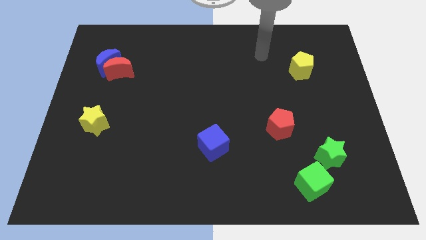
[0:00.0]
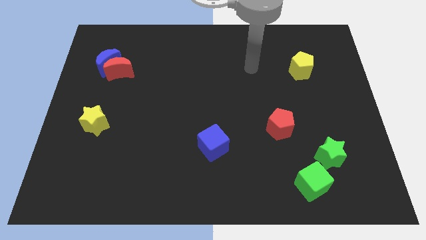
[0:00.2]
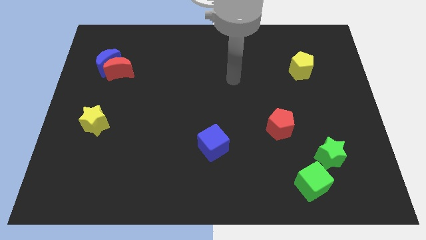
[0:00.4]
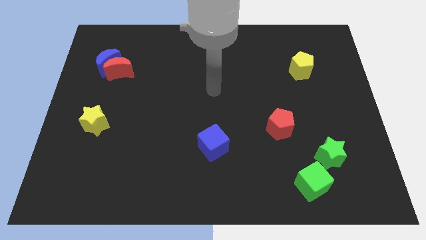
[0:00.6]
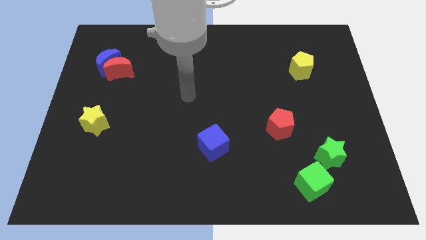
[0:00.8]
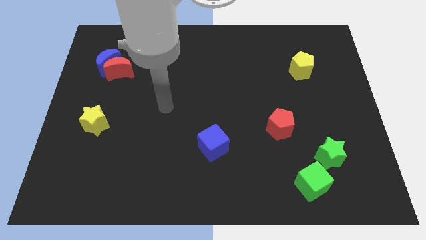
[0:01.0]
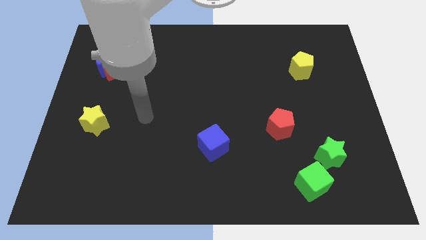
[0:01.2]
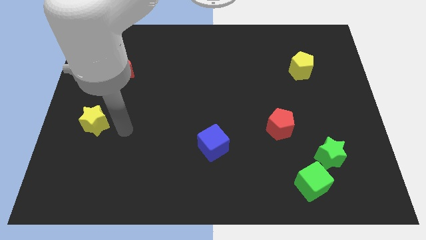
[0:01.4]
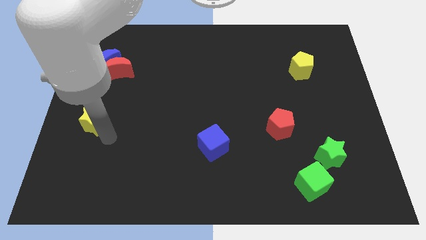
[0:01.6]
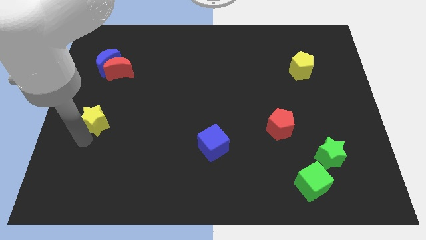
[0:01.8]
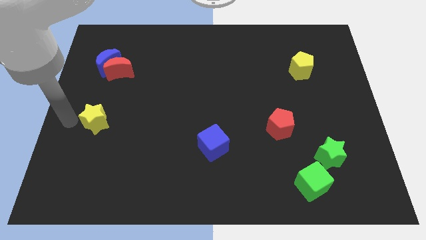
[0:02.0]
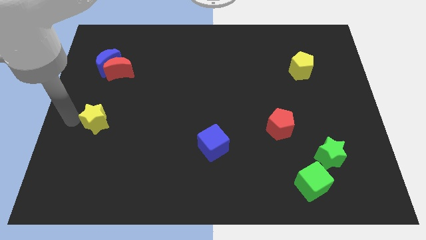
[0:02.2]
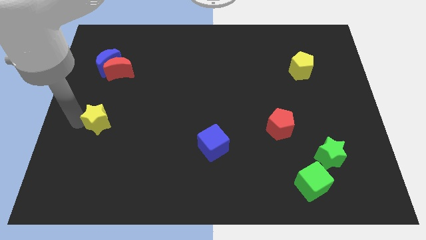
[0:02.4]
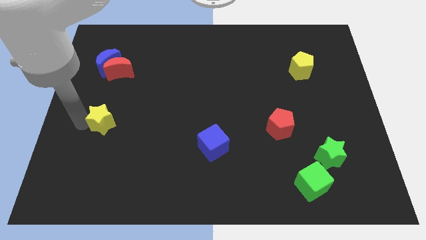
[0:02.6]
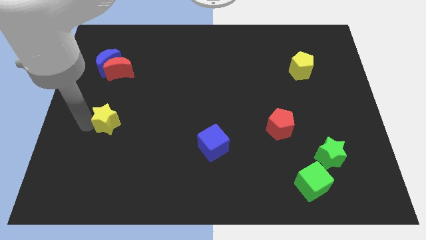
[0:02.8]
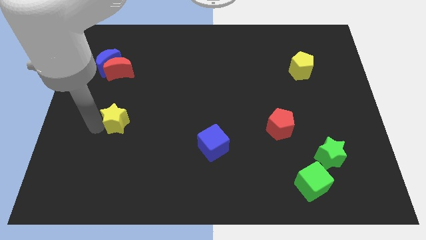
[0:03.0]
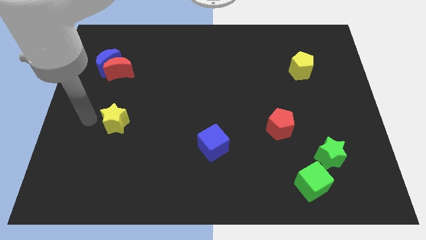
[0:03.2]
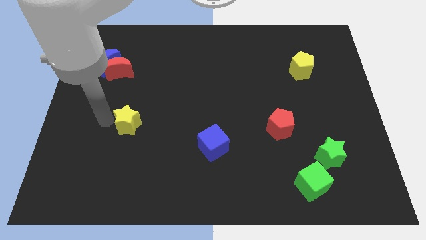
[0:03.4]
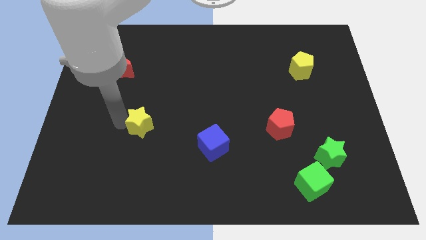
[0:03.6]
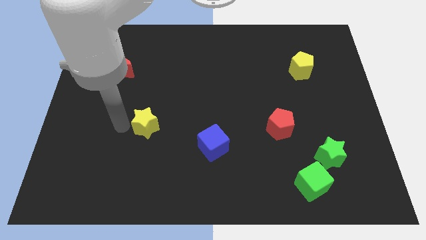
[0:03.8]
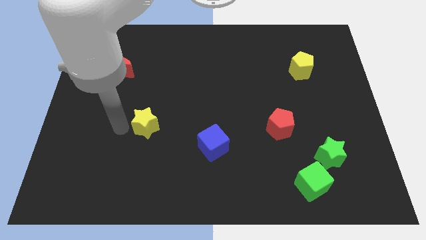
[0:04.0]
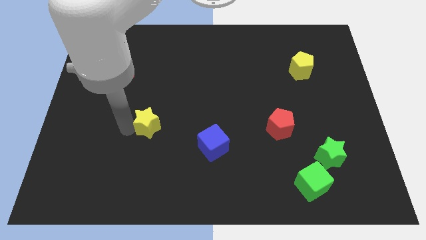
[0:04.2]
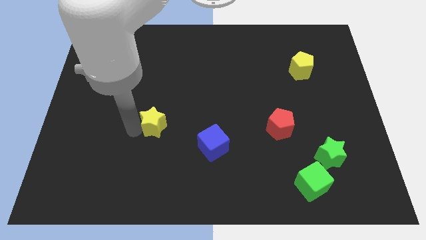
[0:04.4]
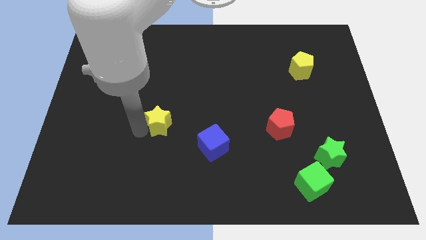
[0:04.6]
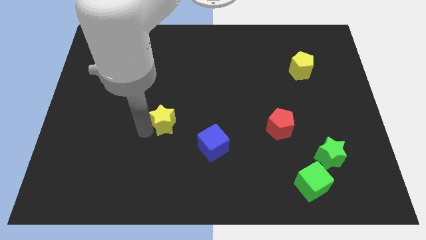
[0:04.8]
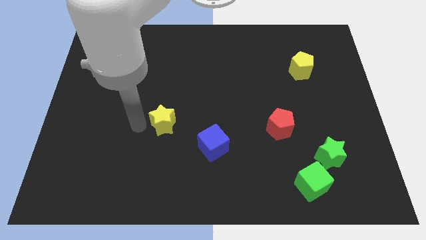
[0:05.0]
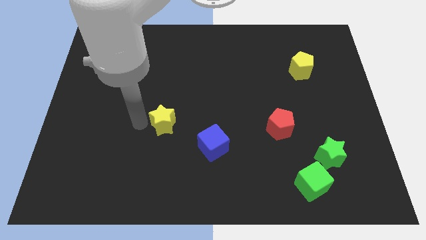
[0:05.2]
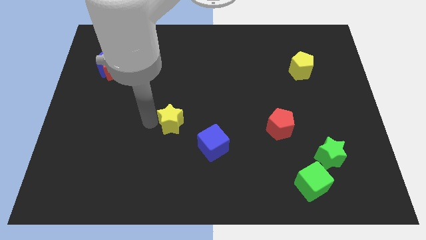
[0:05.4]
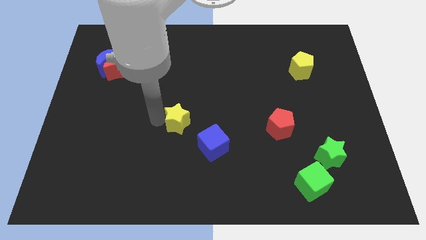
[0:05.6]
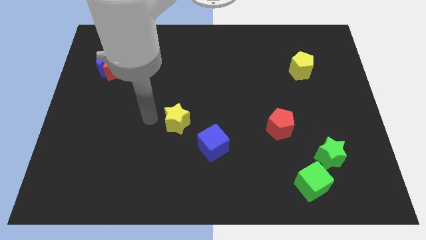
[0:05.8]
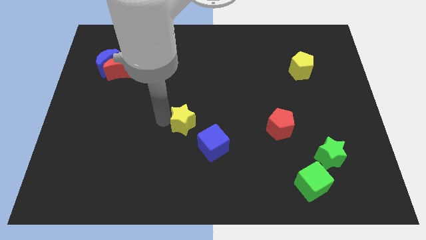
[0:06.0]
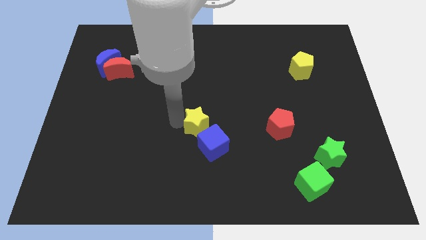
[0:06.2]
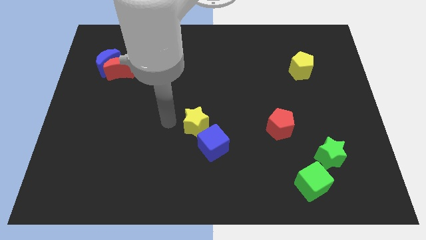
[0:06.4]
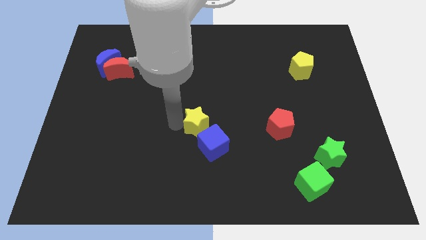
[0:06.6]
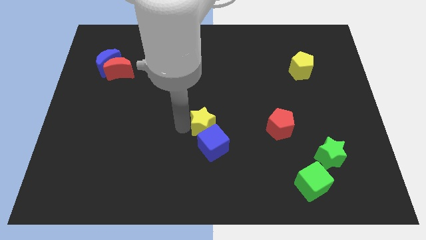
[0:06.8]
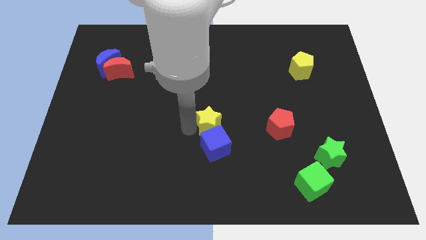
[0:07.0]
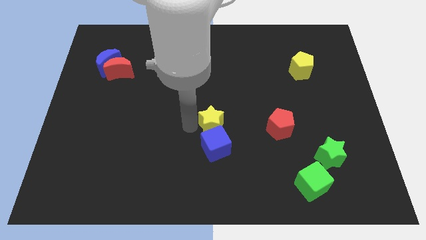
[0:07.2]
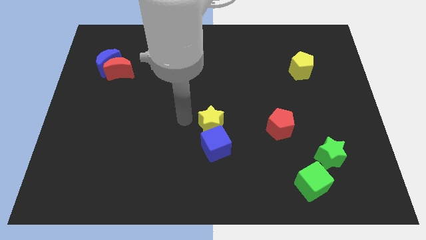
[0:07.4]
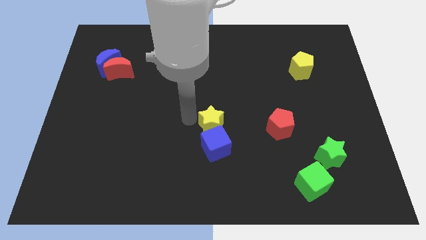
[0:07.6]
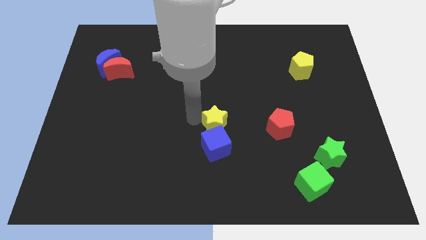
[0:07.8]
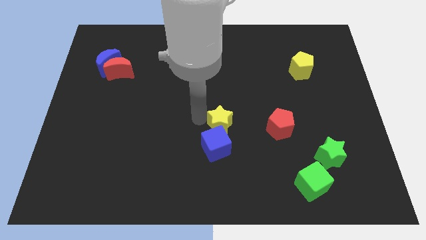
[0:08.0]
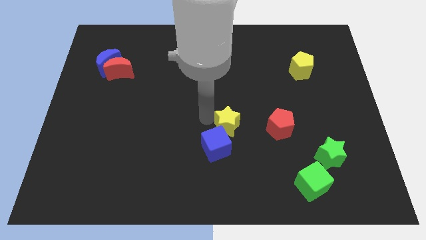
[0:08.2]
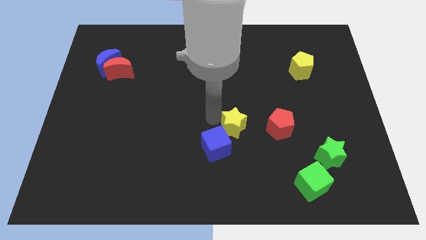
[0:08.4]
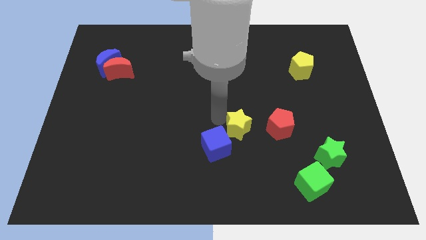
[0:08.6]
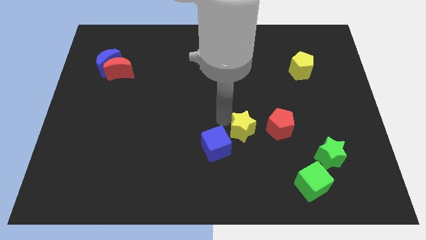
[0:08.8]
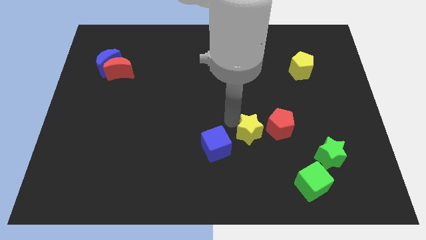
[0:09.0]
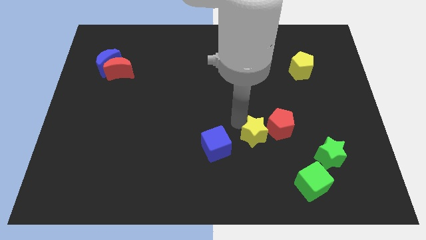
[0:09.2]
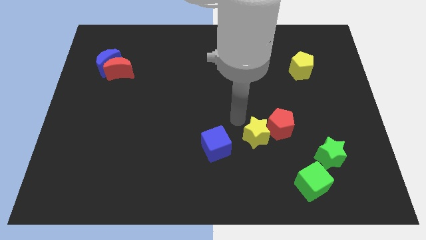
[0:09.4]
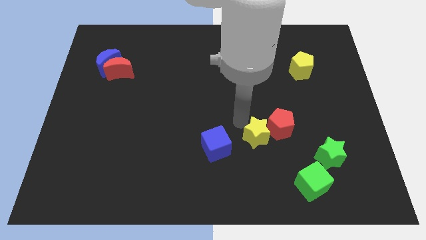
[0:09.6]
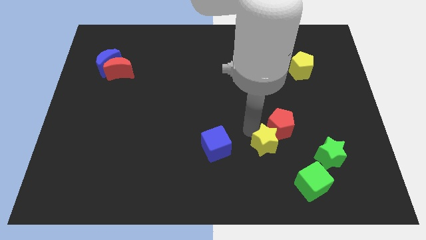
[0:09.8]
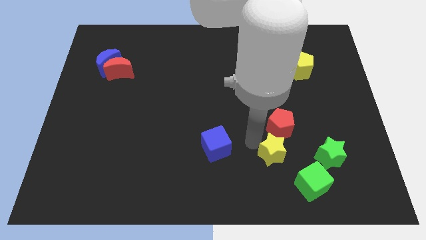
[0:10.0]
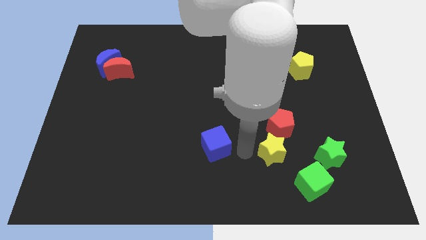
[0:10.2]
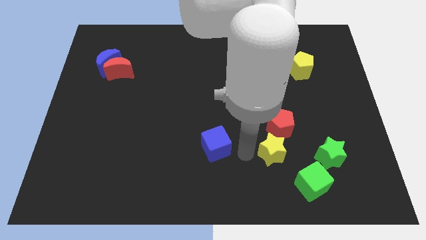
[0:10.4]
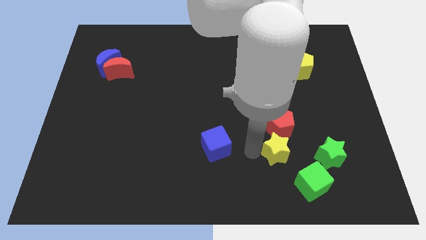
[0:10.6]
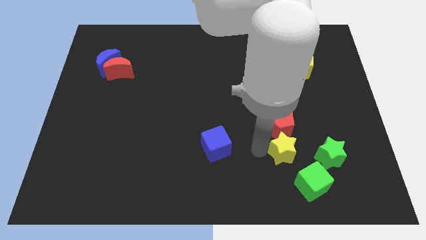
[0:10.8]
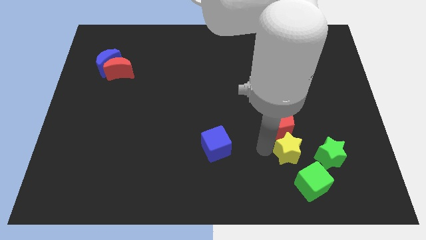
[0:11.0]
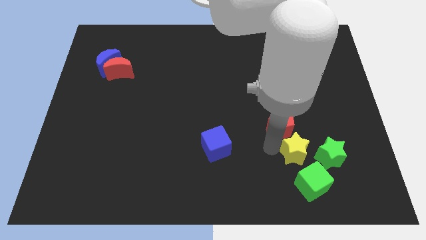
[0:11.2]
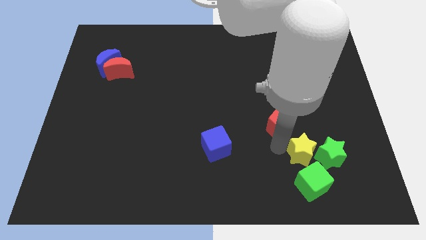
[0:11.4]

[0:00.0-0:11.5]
slide the yellow star towards the green star

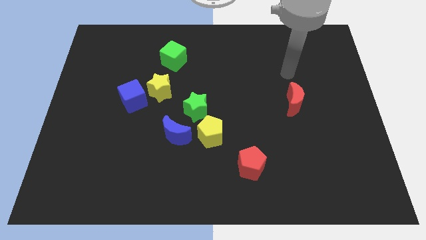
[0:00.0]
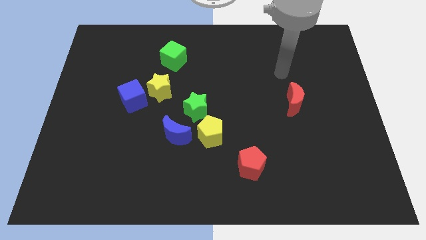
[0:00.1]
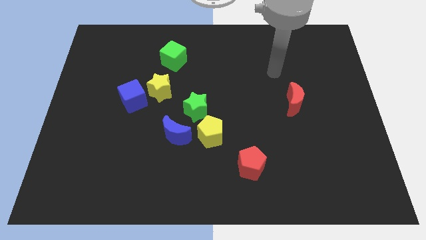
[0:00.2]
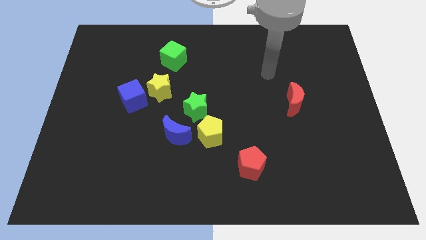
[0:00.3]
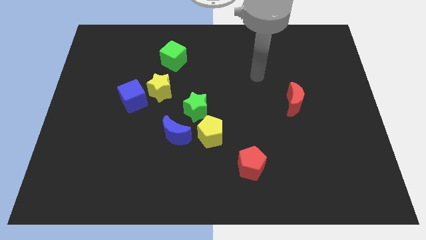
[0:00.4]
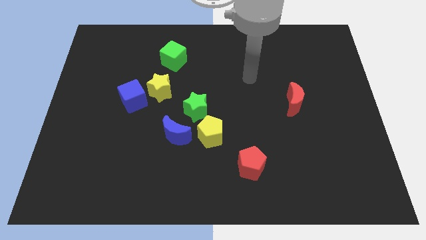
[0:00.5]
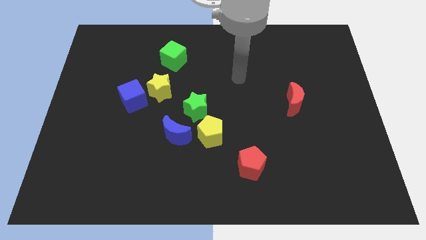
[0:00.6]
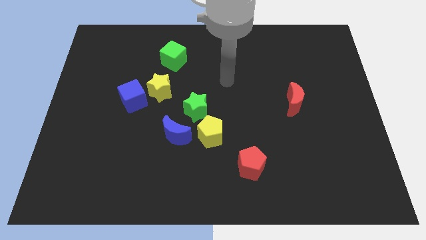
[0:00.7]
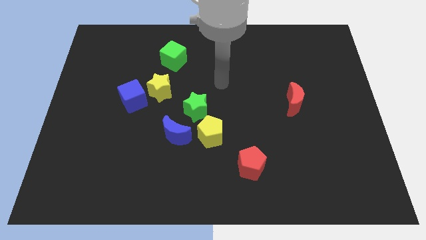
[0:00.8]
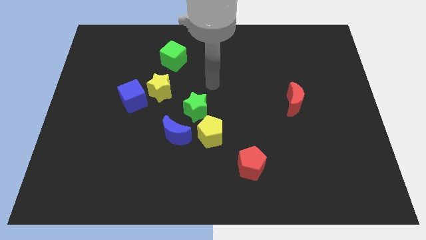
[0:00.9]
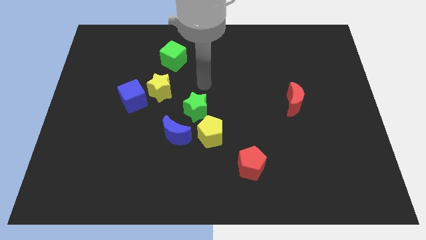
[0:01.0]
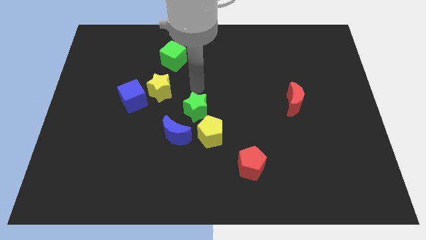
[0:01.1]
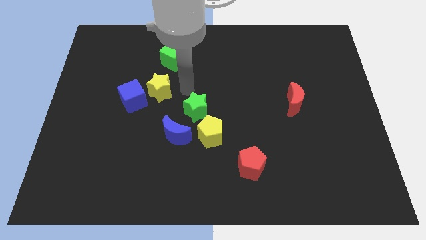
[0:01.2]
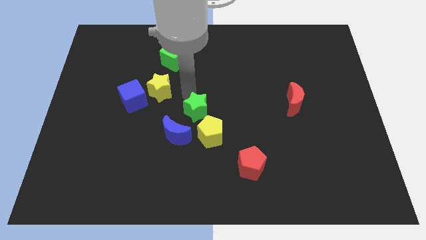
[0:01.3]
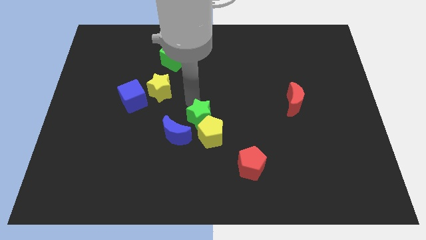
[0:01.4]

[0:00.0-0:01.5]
slide the green star to the yellow pentagon
